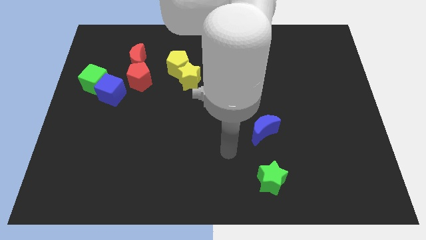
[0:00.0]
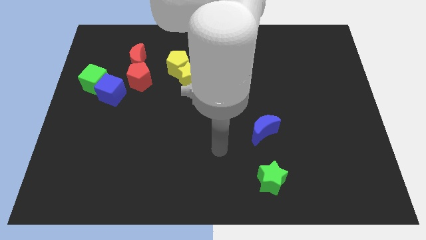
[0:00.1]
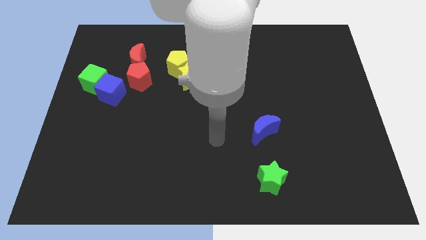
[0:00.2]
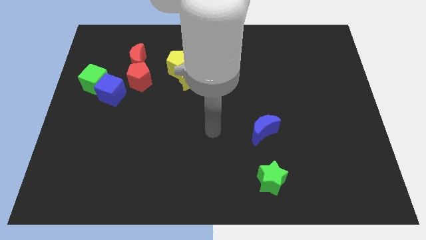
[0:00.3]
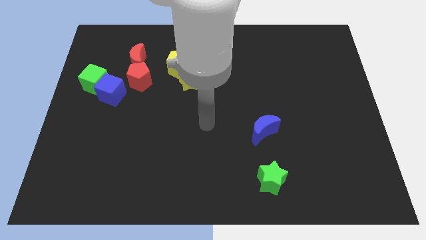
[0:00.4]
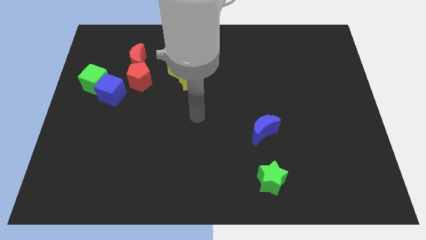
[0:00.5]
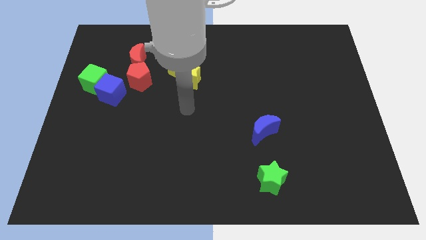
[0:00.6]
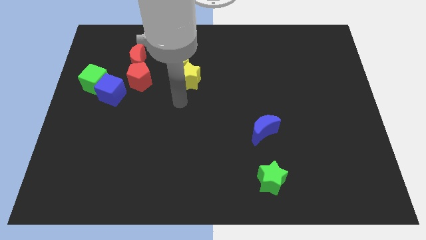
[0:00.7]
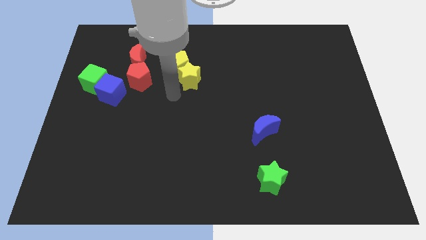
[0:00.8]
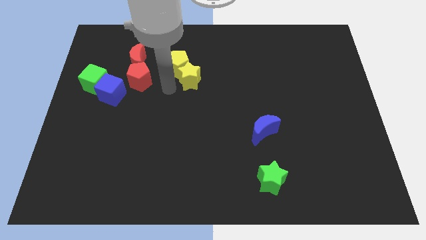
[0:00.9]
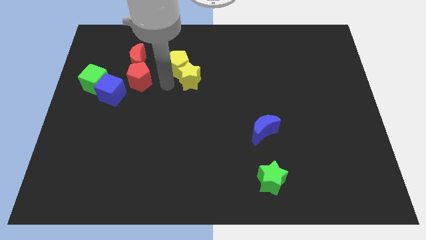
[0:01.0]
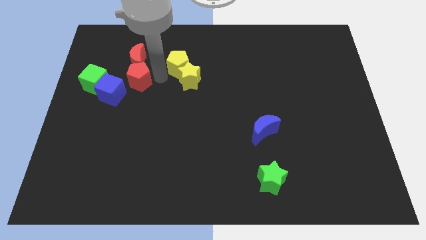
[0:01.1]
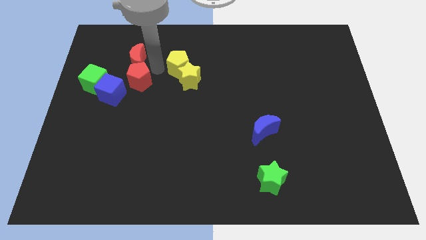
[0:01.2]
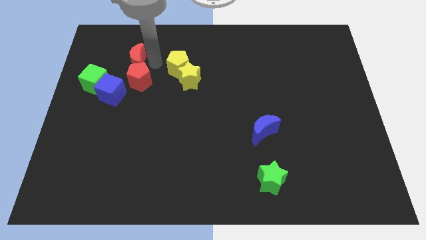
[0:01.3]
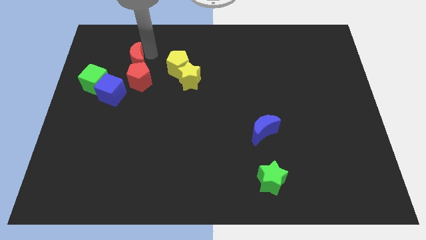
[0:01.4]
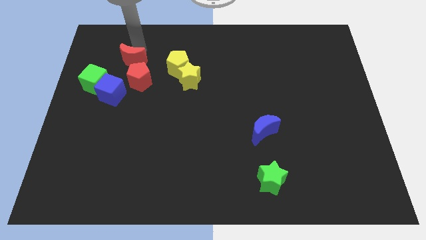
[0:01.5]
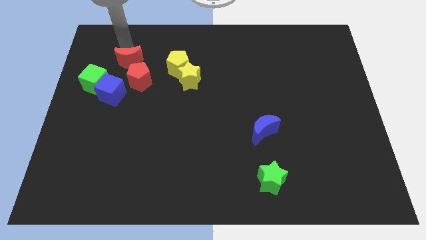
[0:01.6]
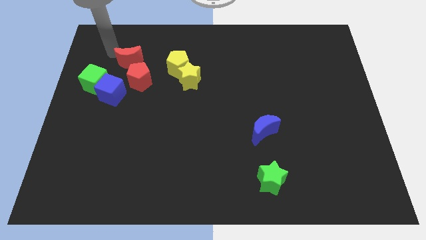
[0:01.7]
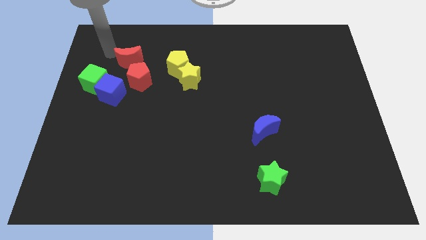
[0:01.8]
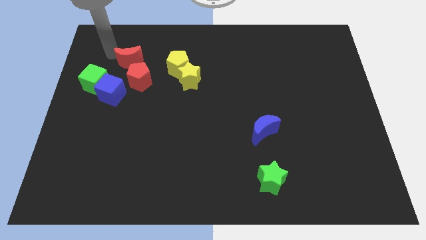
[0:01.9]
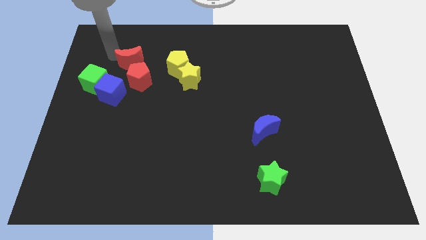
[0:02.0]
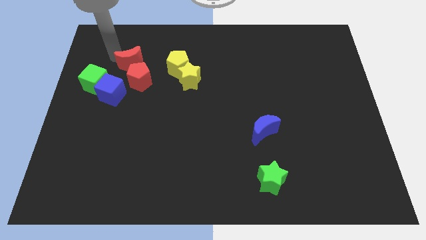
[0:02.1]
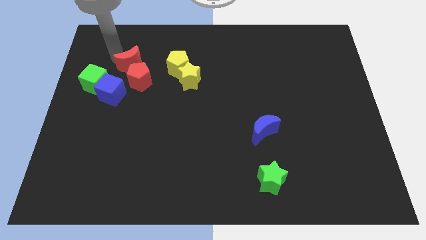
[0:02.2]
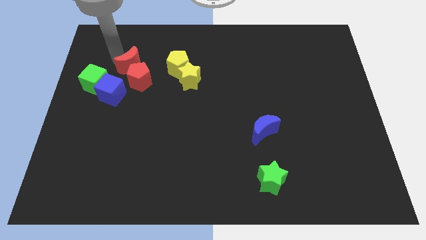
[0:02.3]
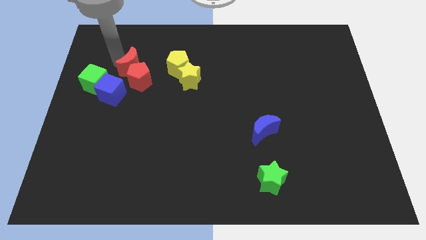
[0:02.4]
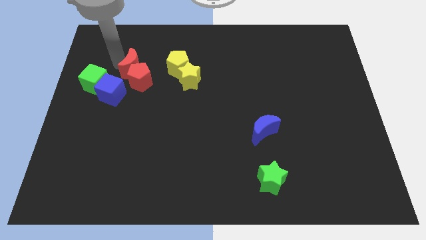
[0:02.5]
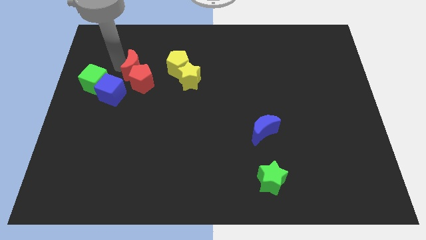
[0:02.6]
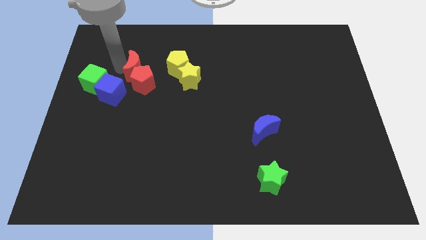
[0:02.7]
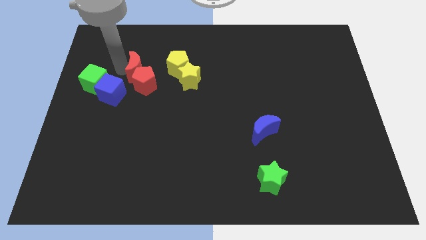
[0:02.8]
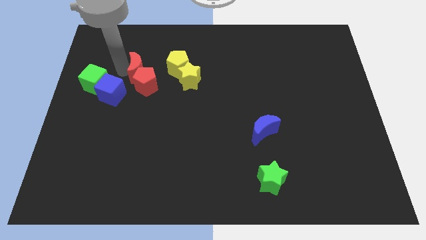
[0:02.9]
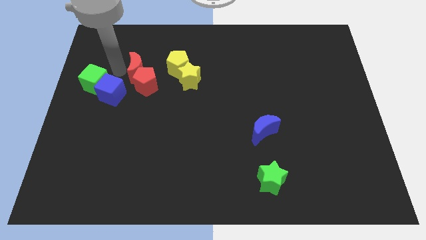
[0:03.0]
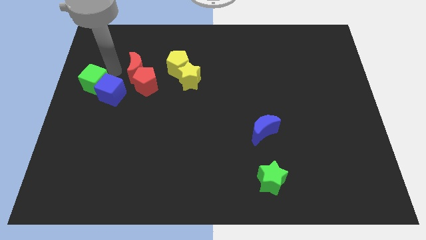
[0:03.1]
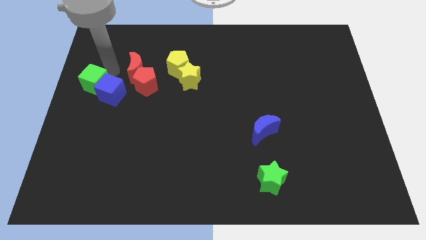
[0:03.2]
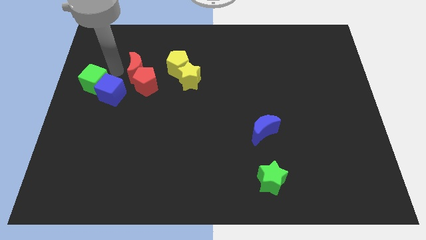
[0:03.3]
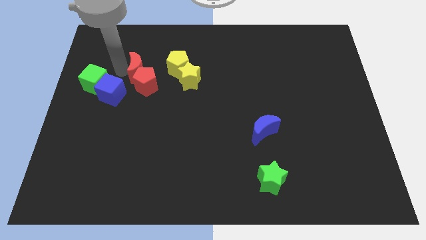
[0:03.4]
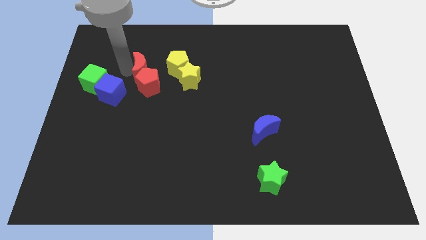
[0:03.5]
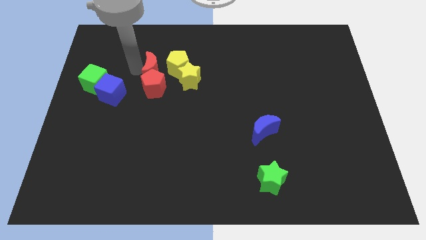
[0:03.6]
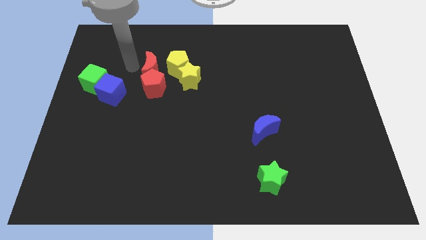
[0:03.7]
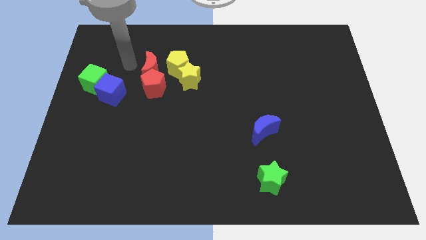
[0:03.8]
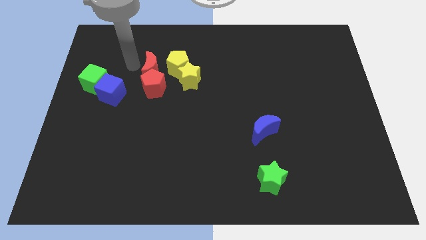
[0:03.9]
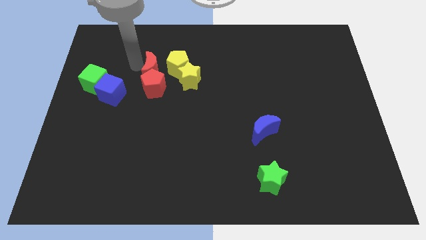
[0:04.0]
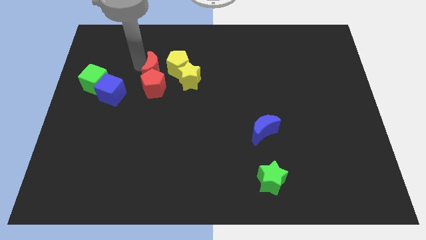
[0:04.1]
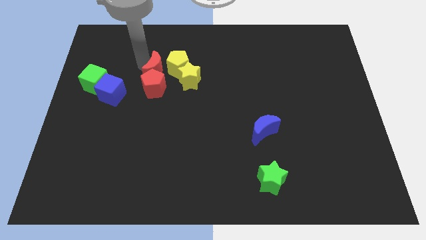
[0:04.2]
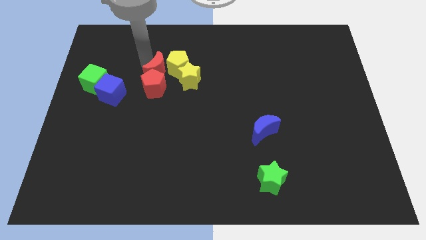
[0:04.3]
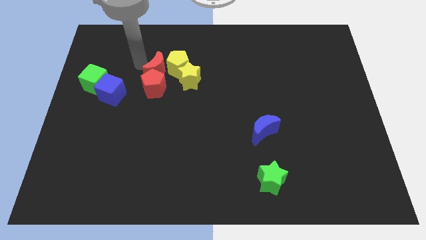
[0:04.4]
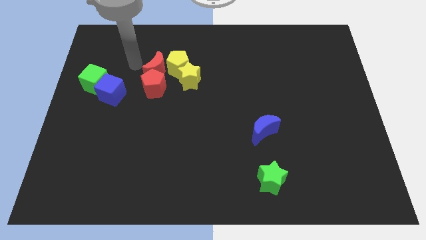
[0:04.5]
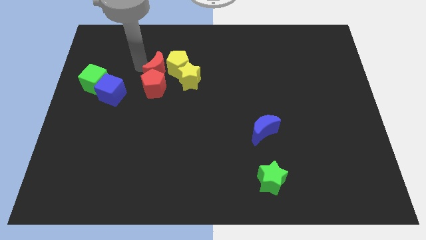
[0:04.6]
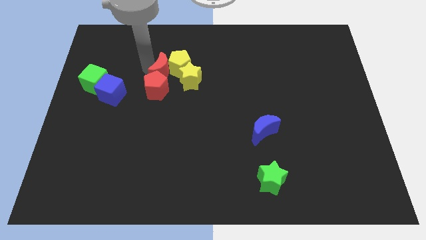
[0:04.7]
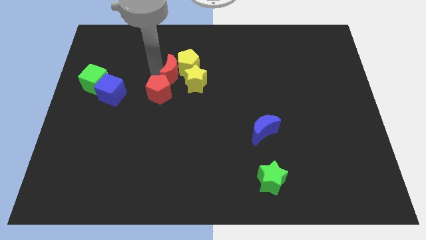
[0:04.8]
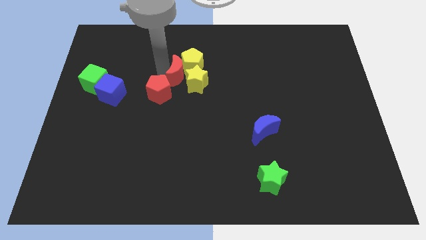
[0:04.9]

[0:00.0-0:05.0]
slide the red moon next to the yellow star

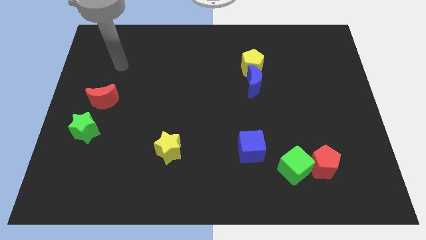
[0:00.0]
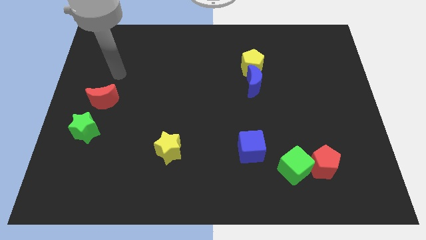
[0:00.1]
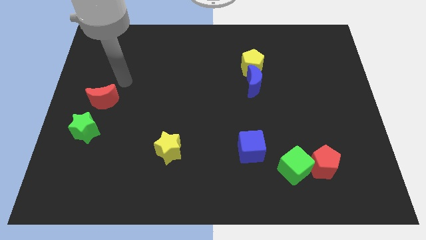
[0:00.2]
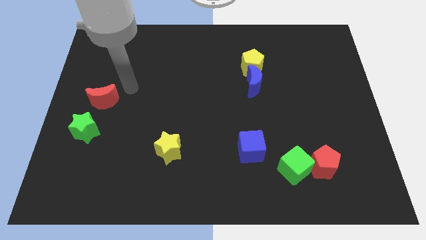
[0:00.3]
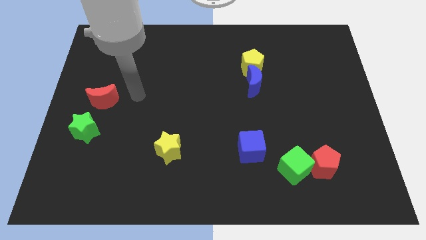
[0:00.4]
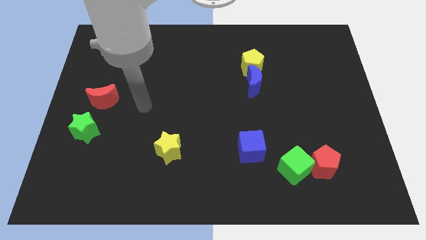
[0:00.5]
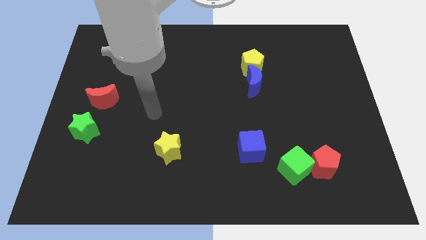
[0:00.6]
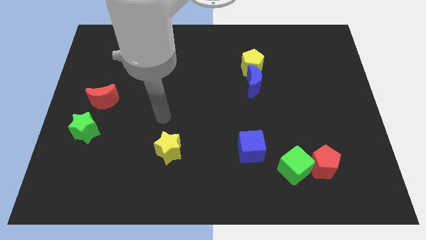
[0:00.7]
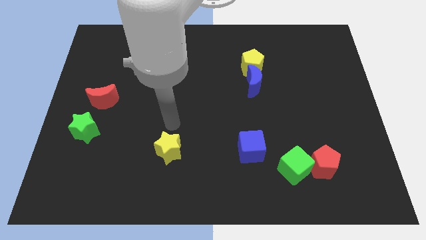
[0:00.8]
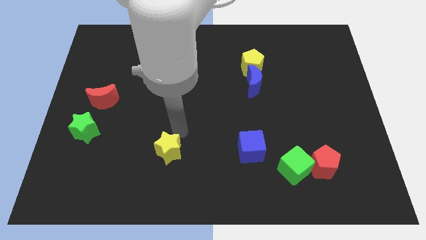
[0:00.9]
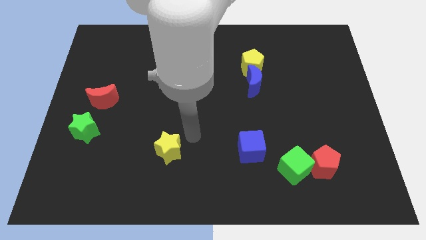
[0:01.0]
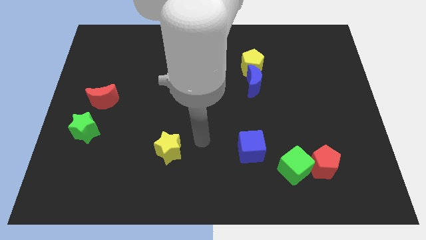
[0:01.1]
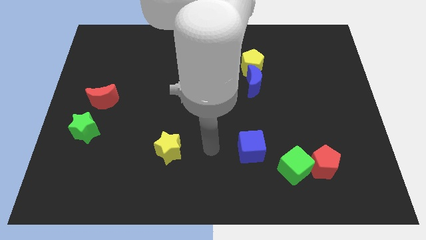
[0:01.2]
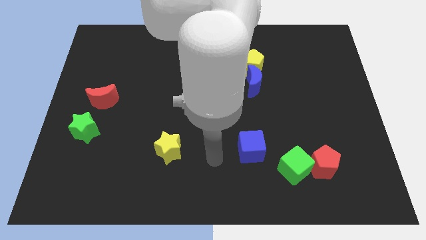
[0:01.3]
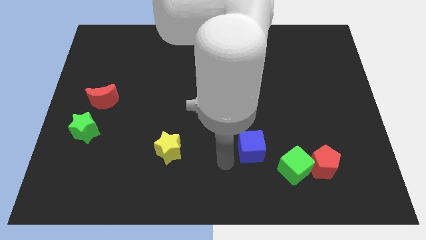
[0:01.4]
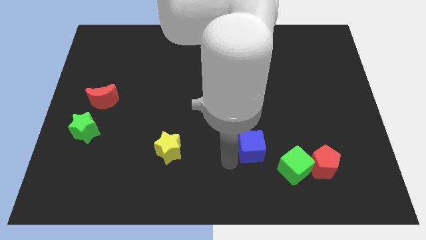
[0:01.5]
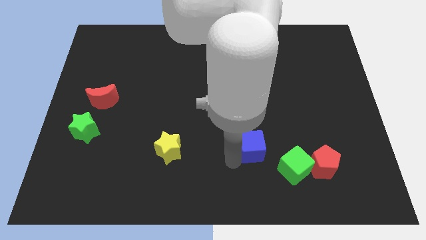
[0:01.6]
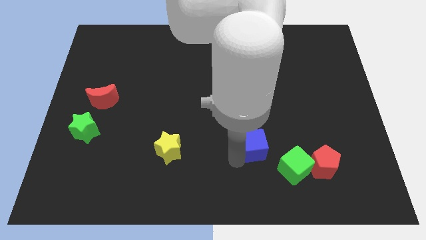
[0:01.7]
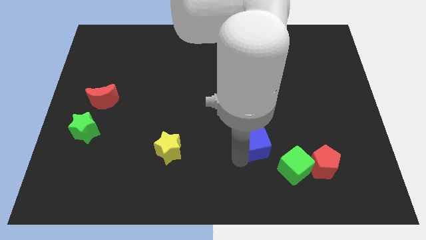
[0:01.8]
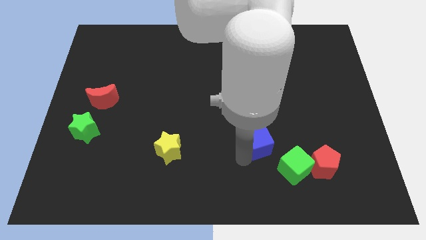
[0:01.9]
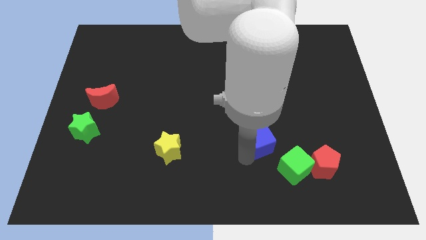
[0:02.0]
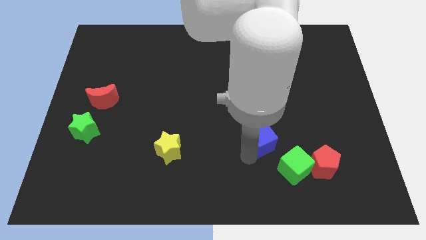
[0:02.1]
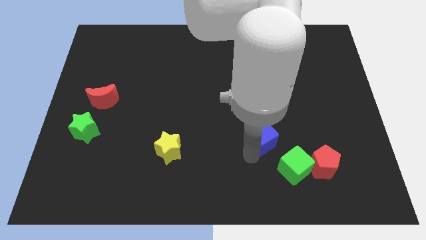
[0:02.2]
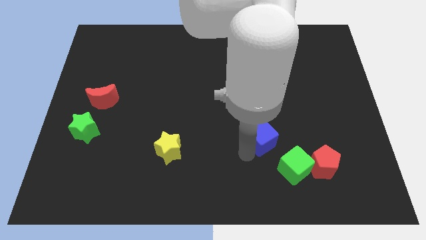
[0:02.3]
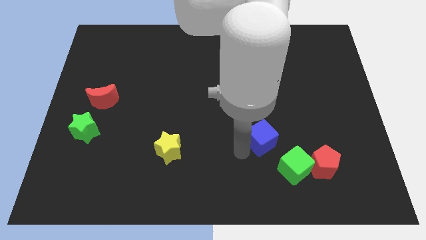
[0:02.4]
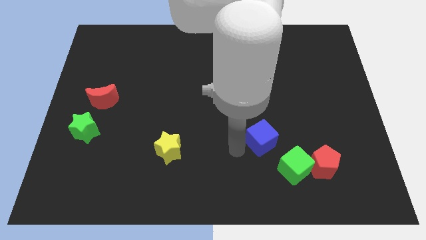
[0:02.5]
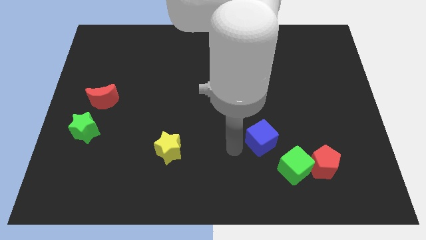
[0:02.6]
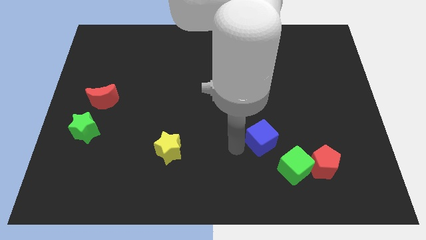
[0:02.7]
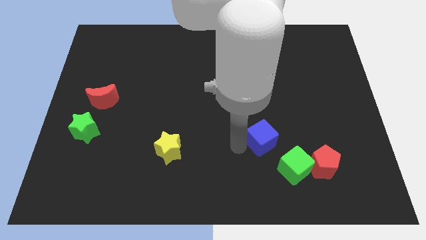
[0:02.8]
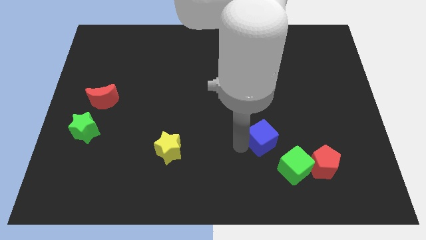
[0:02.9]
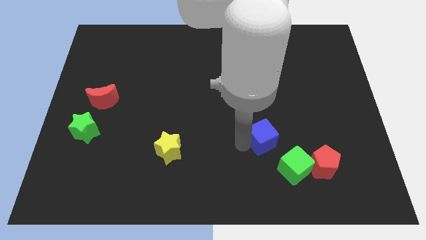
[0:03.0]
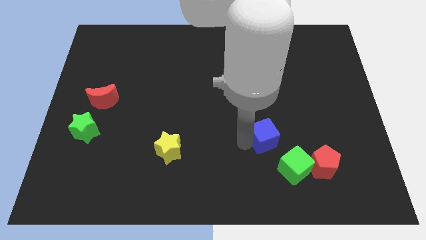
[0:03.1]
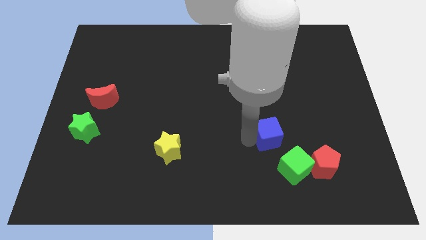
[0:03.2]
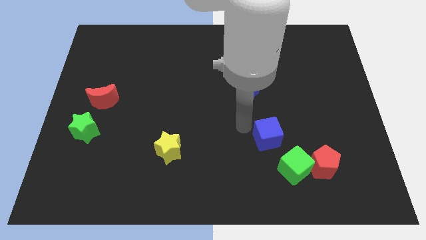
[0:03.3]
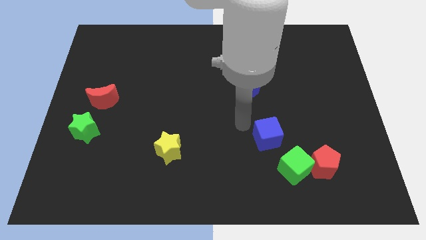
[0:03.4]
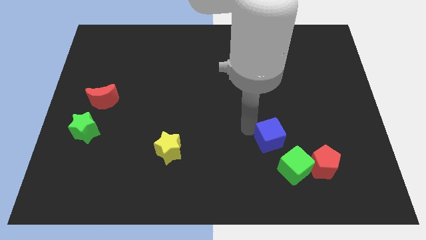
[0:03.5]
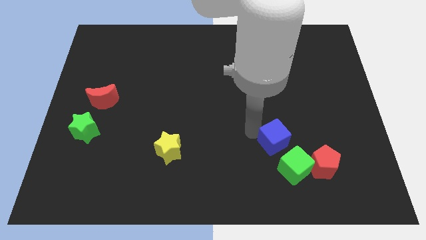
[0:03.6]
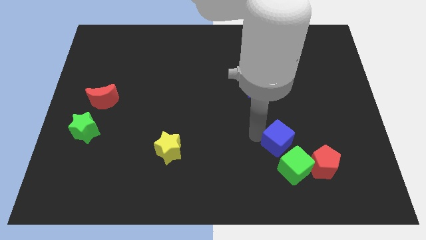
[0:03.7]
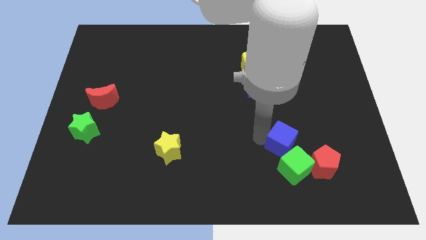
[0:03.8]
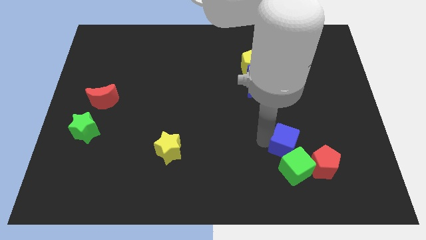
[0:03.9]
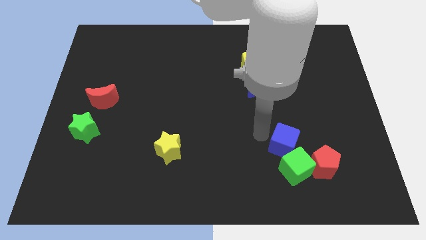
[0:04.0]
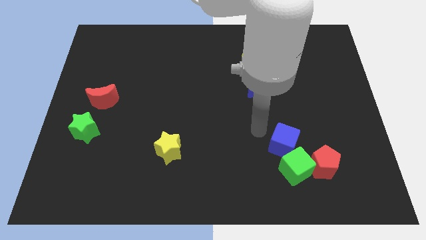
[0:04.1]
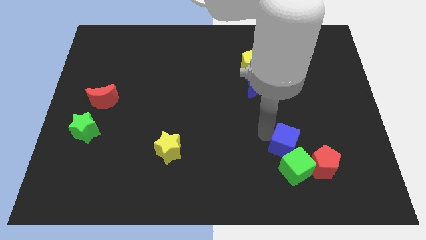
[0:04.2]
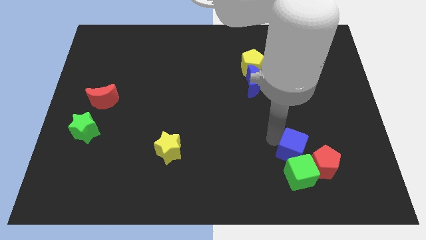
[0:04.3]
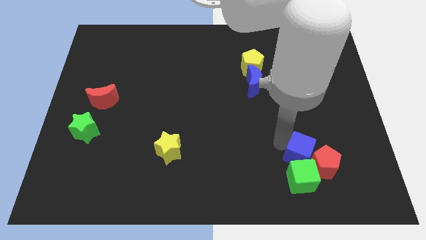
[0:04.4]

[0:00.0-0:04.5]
push the blue cube next to the red pentagon
